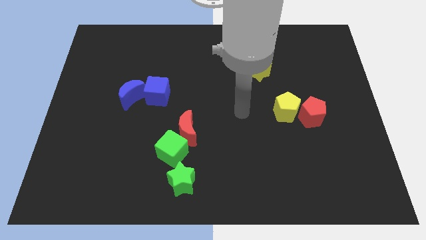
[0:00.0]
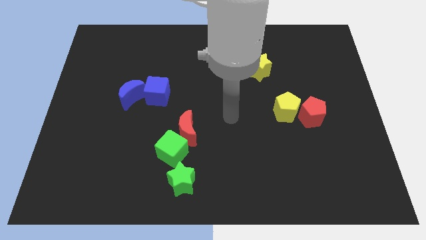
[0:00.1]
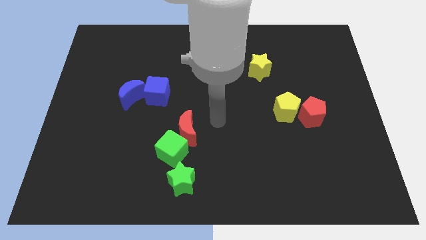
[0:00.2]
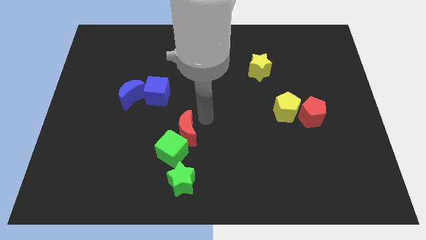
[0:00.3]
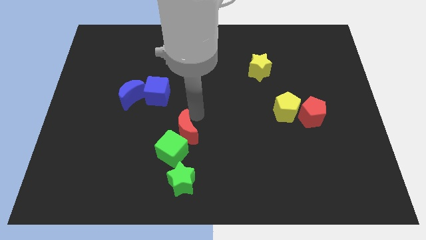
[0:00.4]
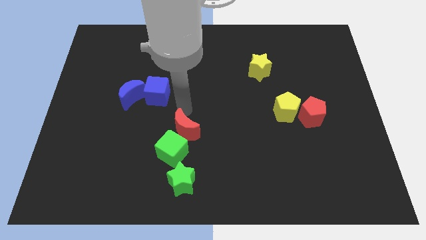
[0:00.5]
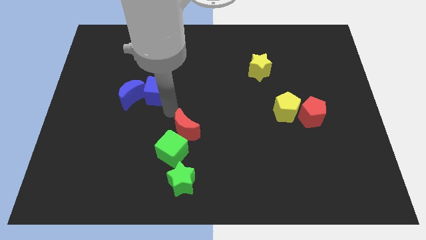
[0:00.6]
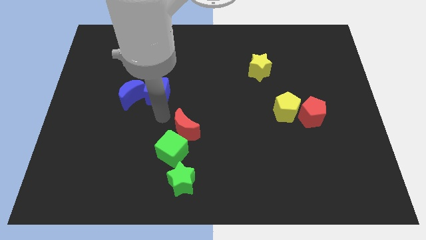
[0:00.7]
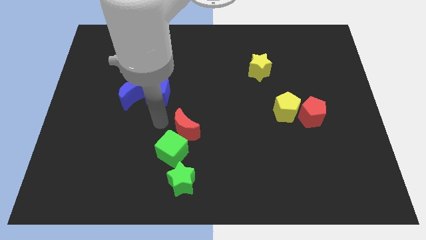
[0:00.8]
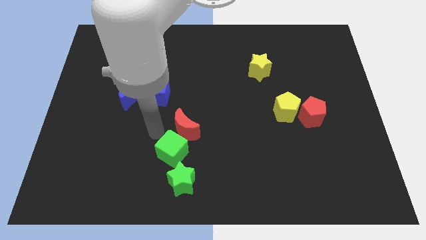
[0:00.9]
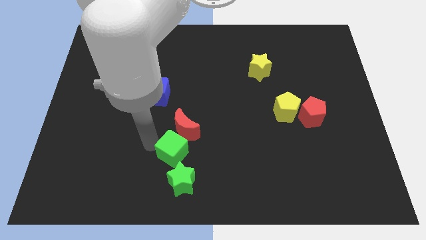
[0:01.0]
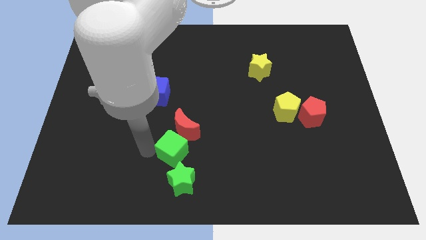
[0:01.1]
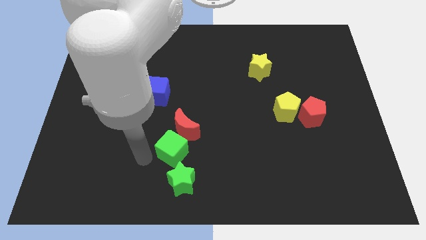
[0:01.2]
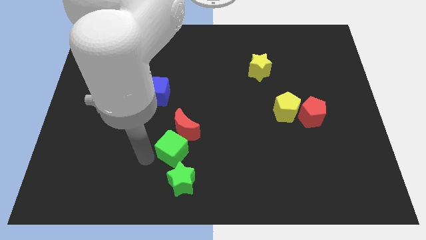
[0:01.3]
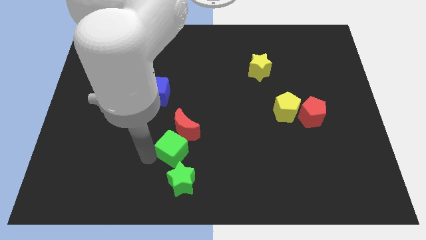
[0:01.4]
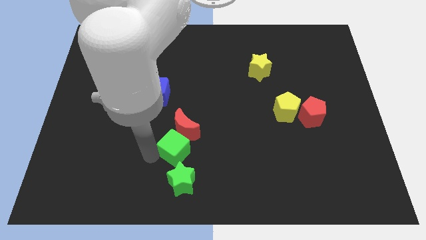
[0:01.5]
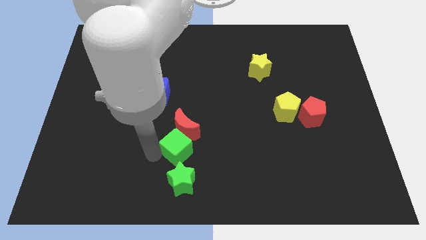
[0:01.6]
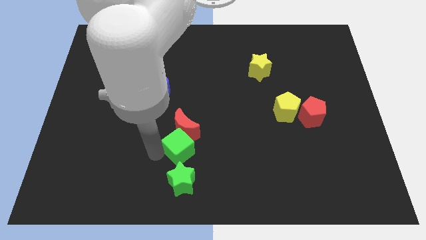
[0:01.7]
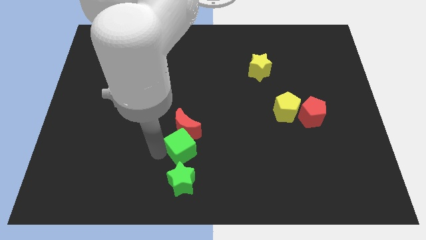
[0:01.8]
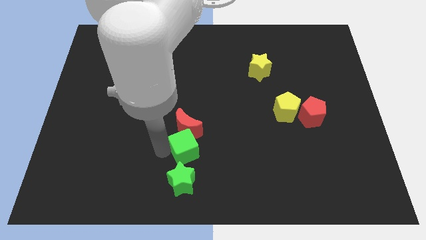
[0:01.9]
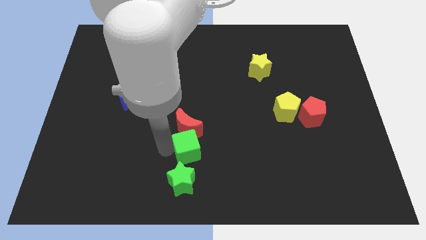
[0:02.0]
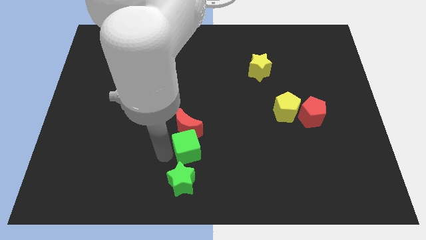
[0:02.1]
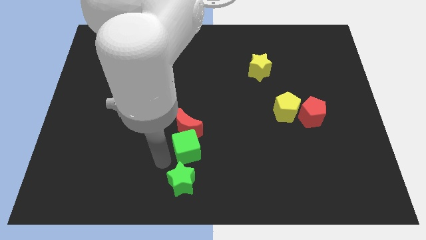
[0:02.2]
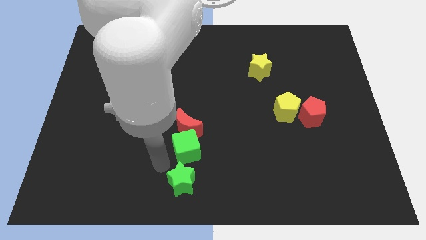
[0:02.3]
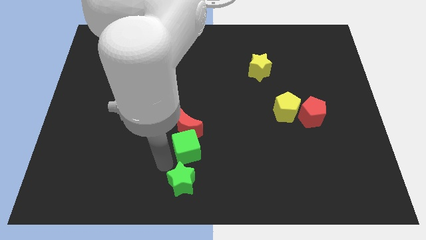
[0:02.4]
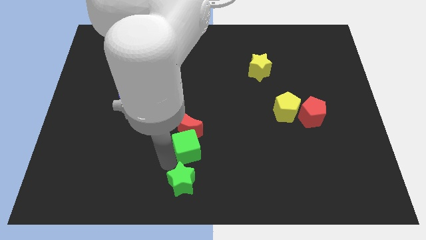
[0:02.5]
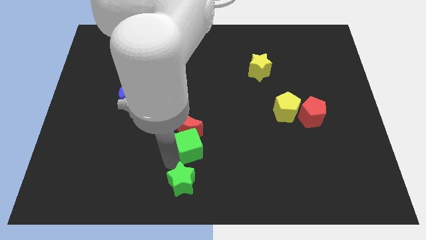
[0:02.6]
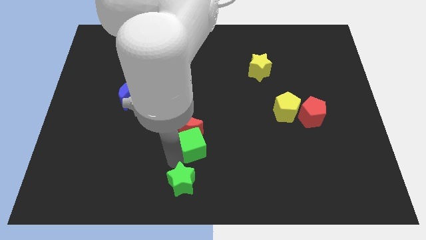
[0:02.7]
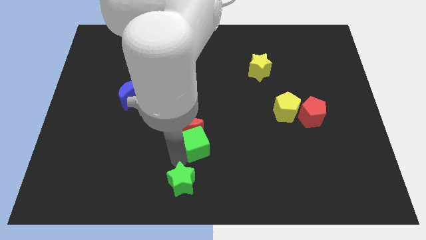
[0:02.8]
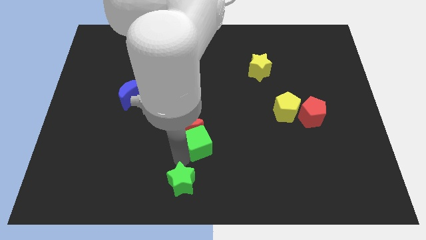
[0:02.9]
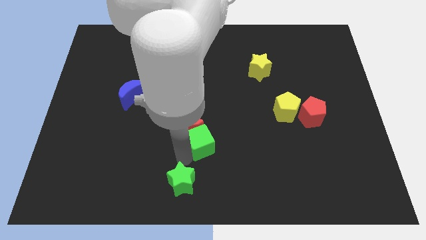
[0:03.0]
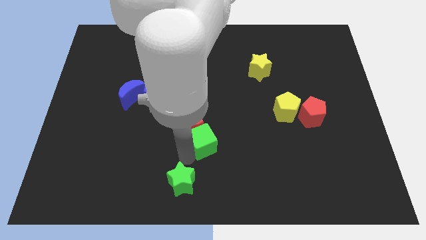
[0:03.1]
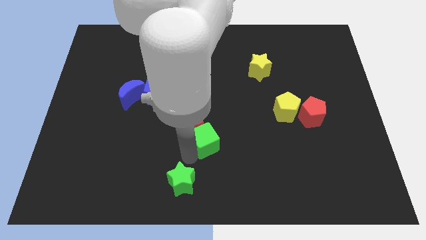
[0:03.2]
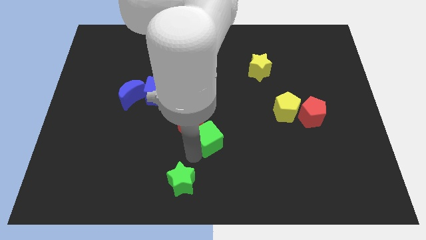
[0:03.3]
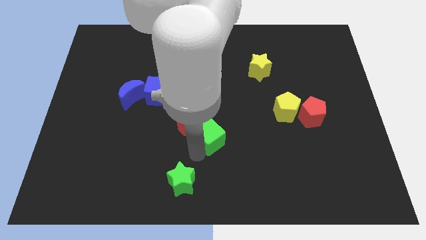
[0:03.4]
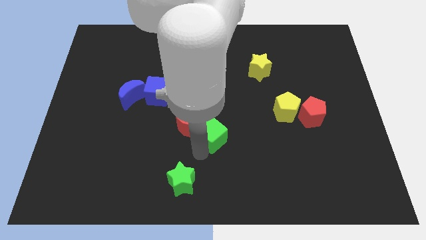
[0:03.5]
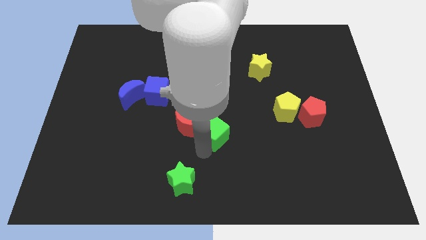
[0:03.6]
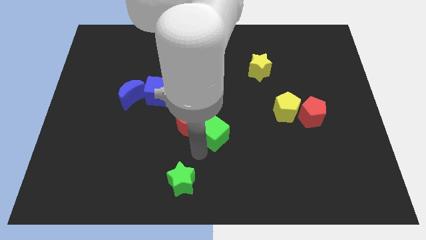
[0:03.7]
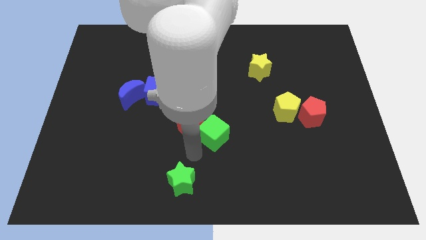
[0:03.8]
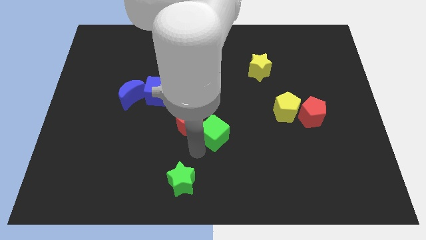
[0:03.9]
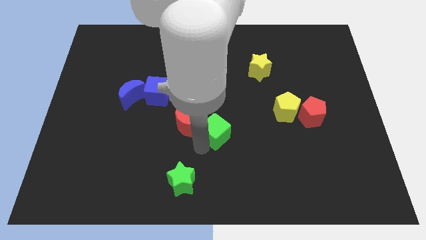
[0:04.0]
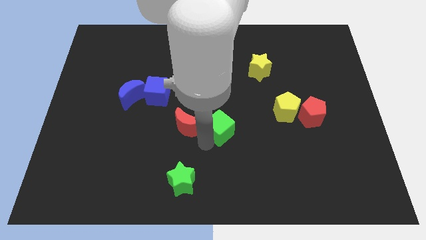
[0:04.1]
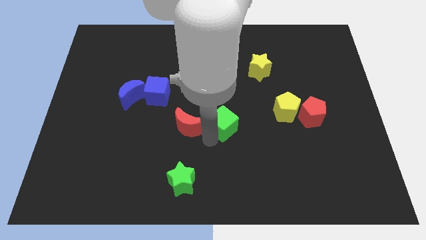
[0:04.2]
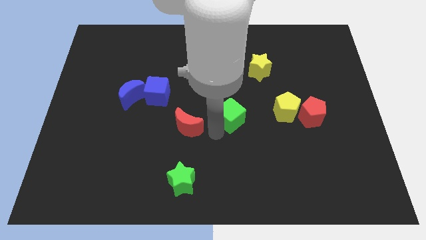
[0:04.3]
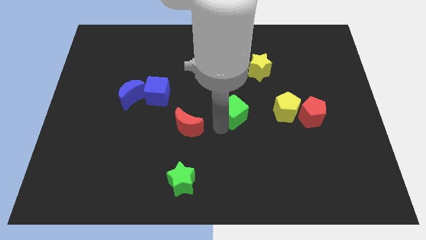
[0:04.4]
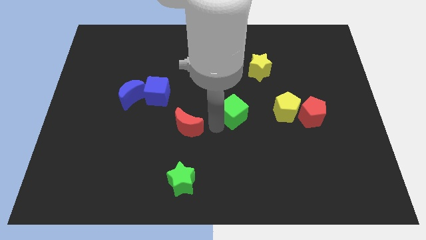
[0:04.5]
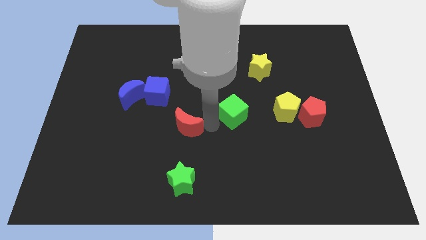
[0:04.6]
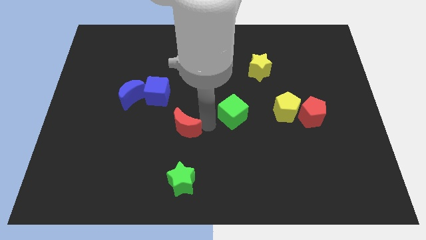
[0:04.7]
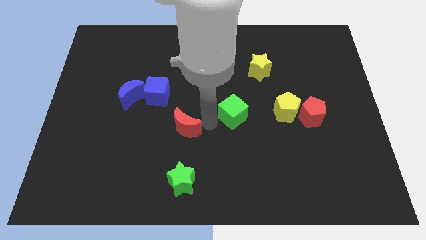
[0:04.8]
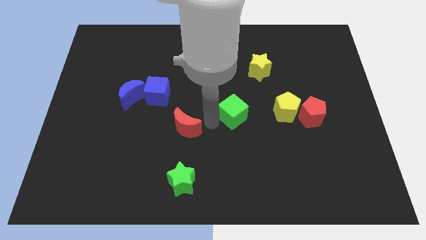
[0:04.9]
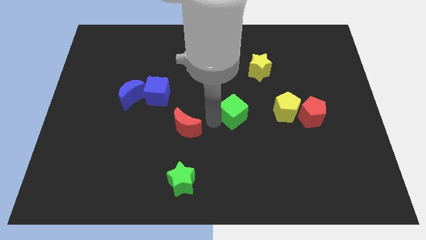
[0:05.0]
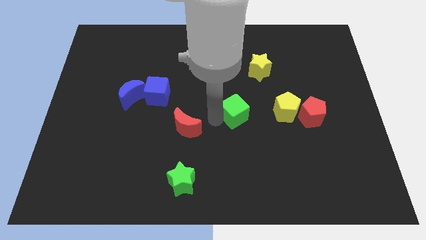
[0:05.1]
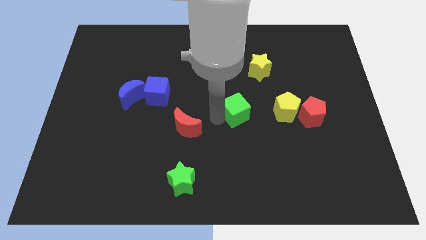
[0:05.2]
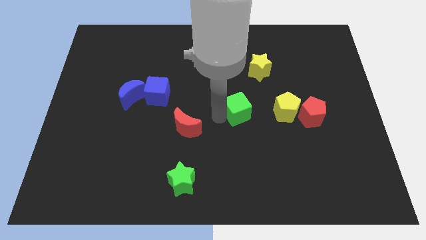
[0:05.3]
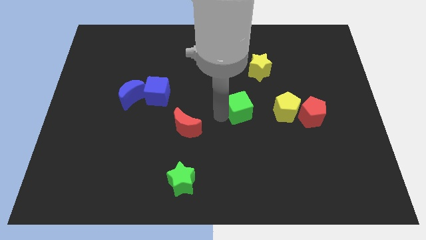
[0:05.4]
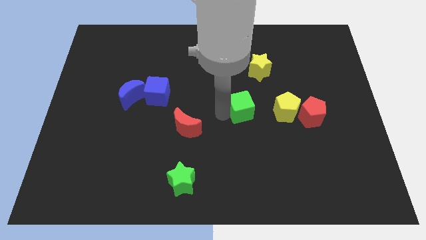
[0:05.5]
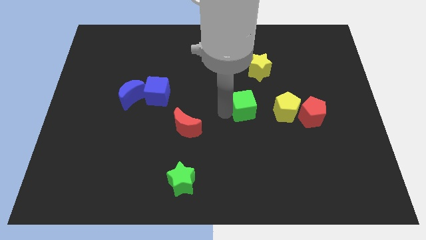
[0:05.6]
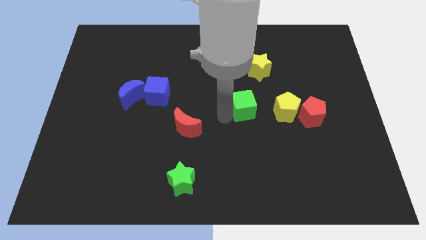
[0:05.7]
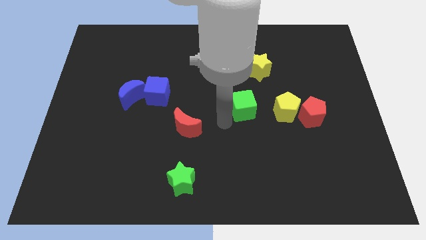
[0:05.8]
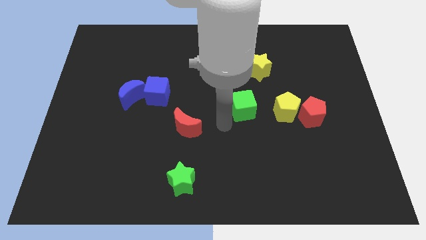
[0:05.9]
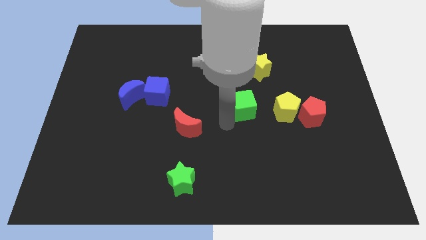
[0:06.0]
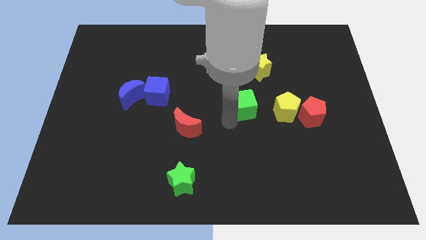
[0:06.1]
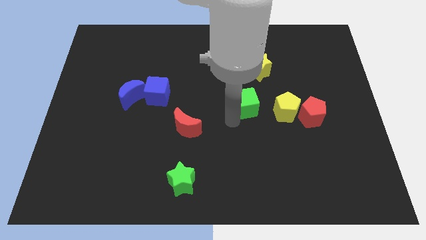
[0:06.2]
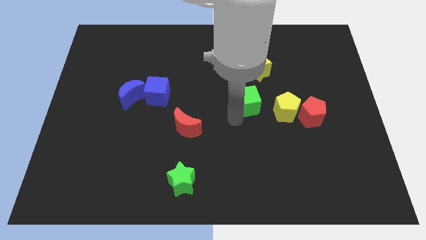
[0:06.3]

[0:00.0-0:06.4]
put the green cube to the top left side of the yellow pentagon
